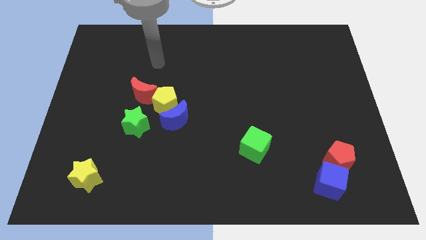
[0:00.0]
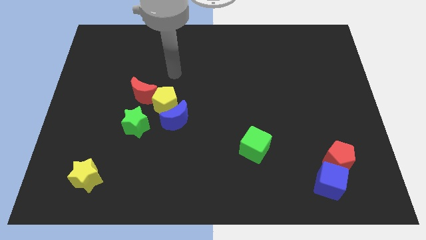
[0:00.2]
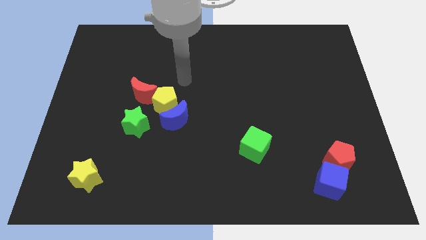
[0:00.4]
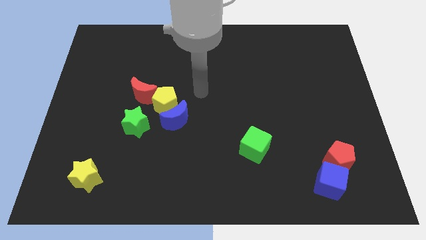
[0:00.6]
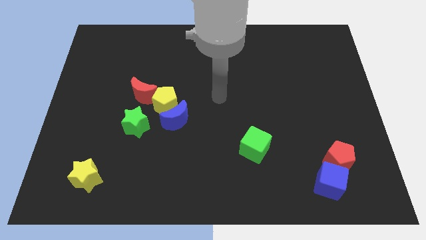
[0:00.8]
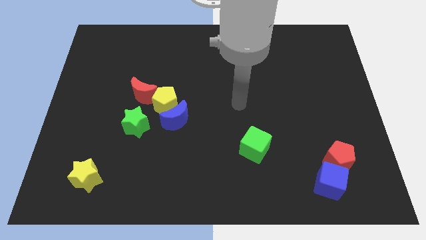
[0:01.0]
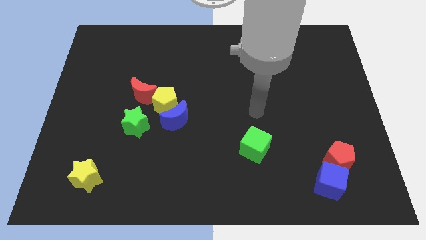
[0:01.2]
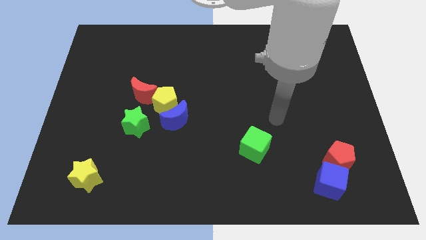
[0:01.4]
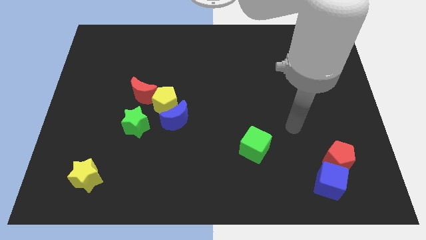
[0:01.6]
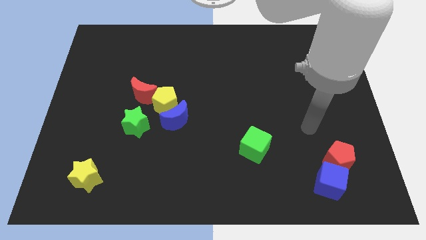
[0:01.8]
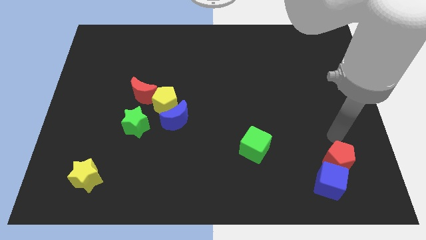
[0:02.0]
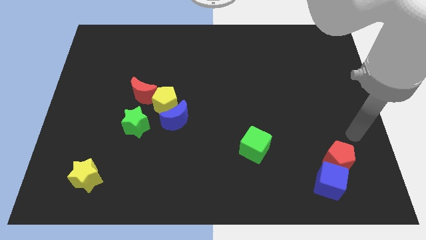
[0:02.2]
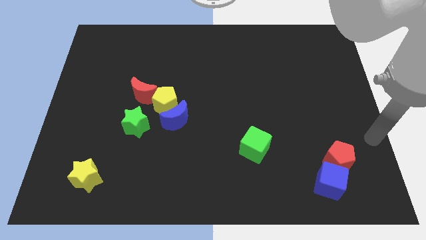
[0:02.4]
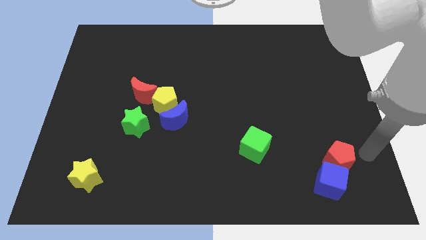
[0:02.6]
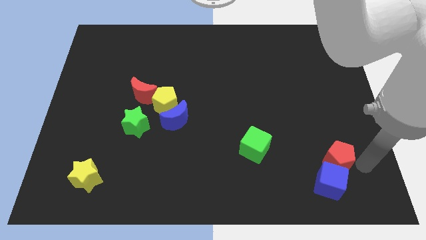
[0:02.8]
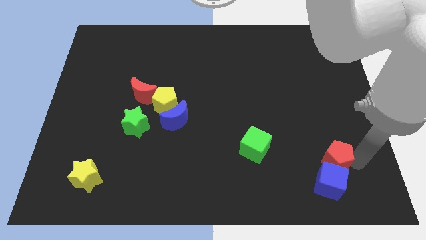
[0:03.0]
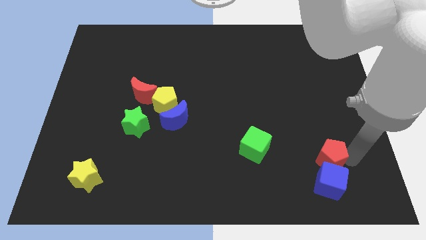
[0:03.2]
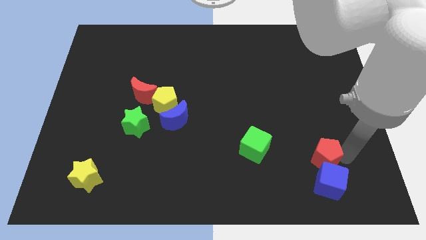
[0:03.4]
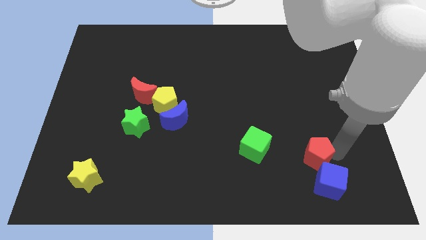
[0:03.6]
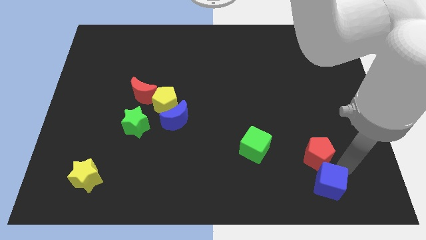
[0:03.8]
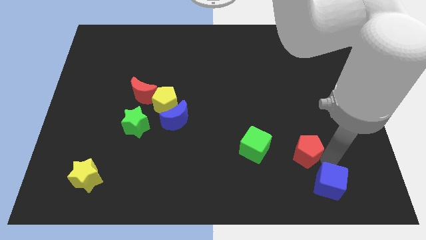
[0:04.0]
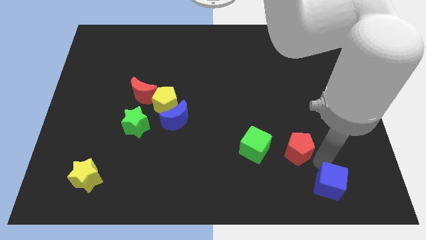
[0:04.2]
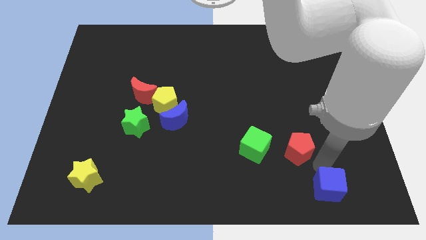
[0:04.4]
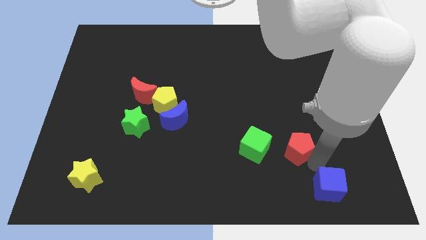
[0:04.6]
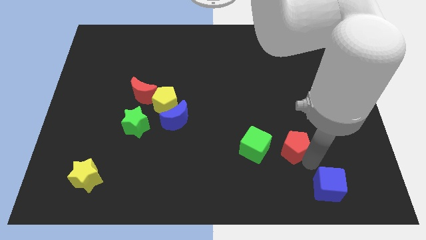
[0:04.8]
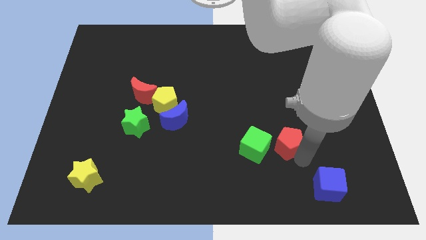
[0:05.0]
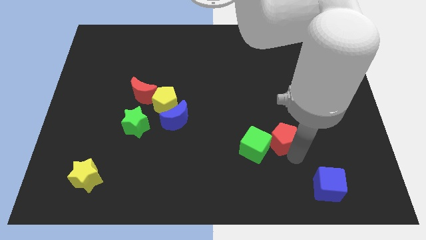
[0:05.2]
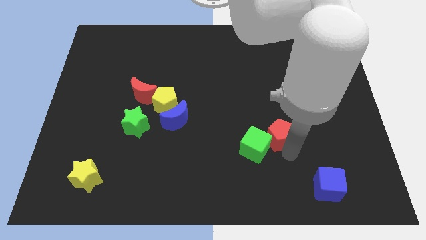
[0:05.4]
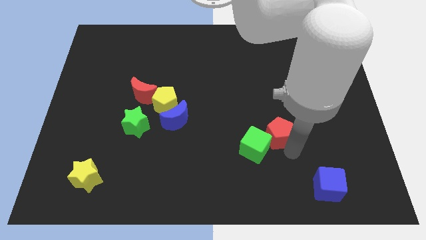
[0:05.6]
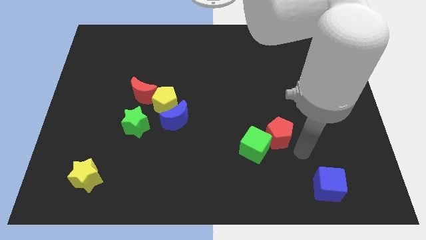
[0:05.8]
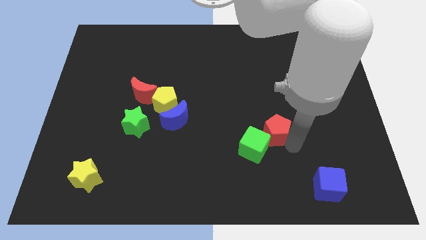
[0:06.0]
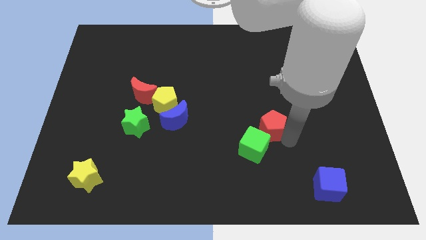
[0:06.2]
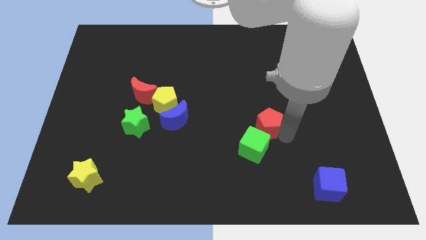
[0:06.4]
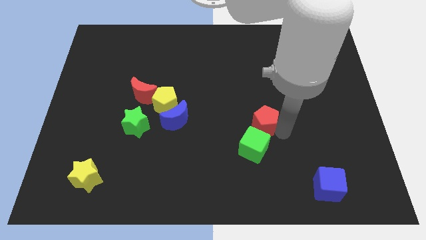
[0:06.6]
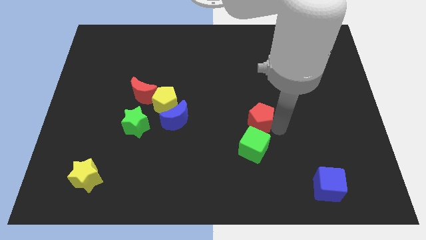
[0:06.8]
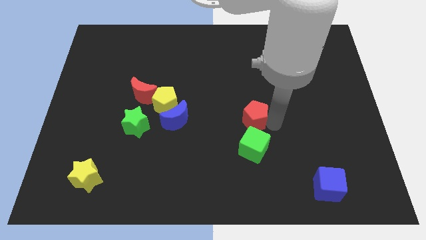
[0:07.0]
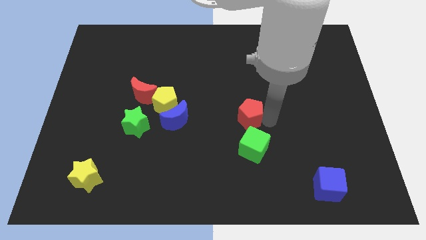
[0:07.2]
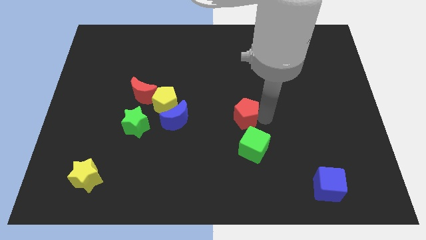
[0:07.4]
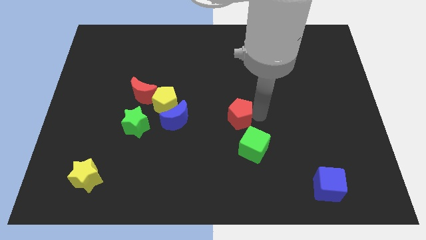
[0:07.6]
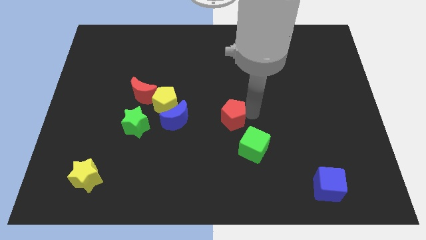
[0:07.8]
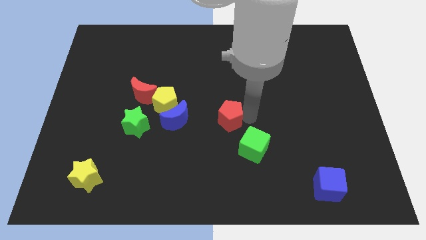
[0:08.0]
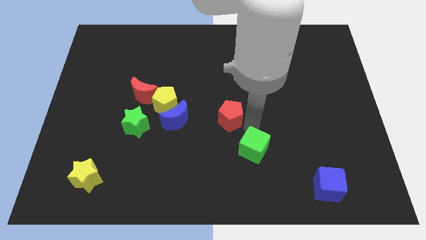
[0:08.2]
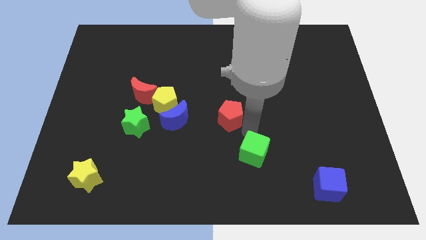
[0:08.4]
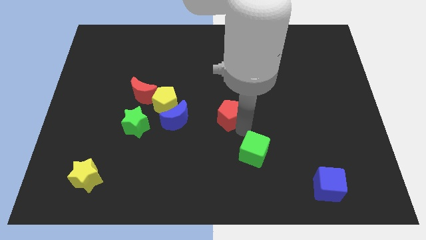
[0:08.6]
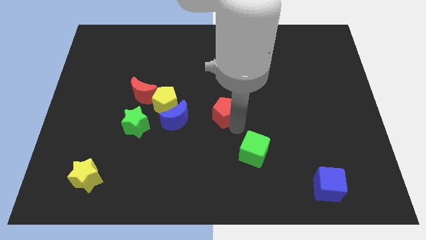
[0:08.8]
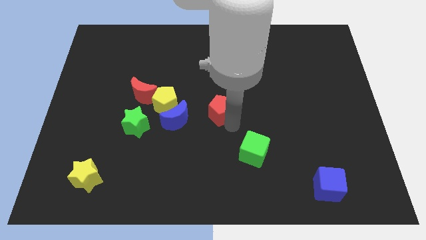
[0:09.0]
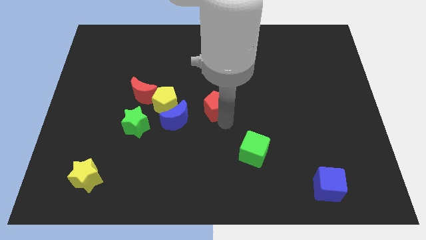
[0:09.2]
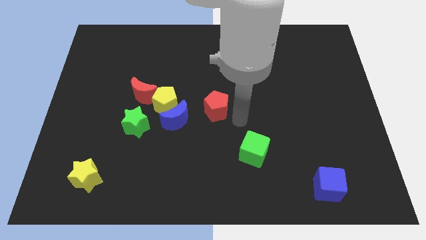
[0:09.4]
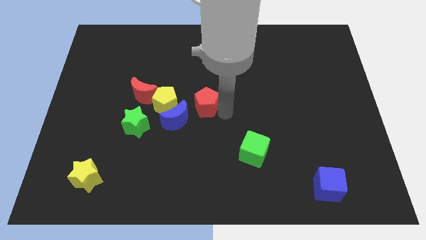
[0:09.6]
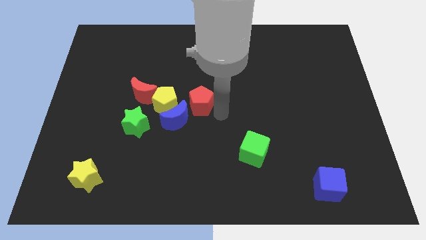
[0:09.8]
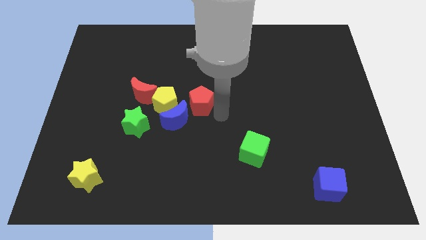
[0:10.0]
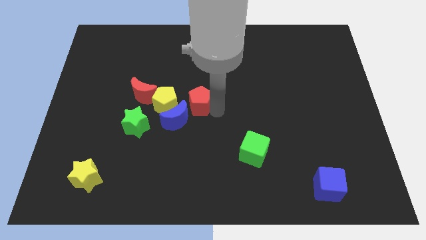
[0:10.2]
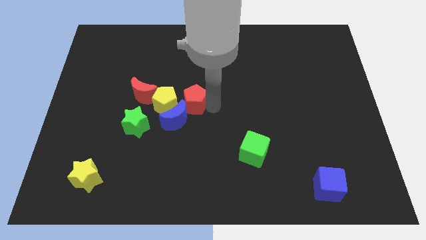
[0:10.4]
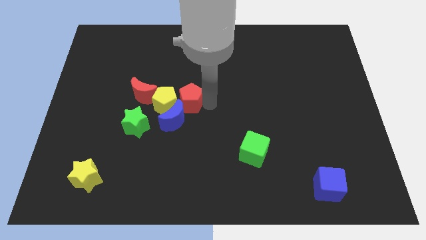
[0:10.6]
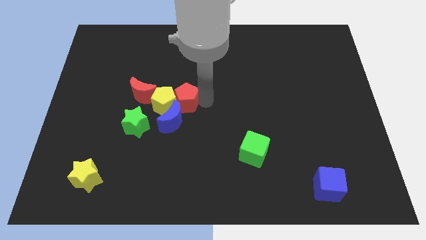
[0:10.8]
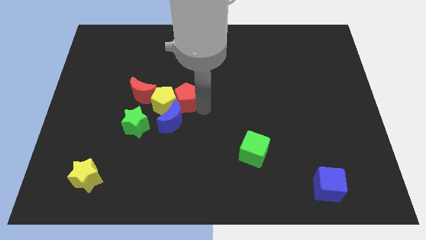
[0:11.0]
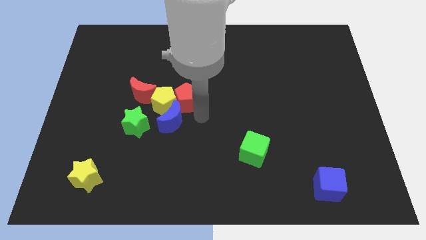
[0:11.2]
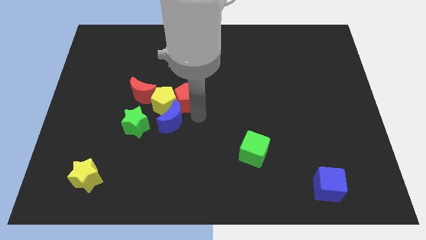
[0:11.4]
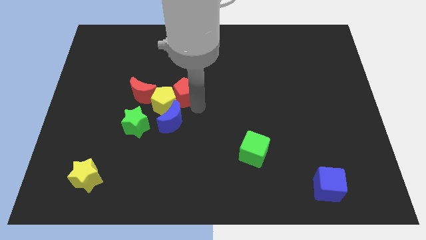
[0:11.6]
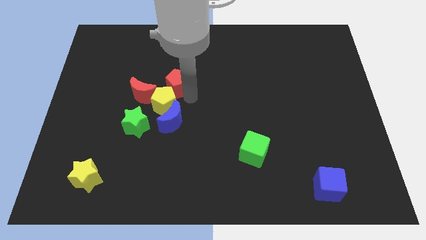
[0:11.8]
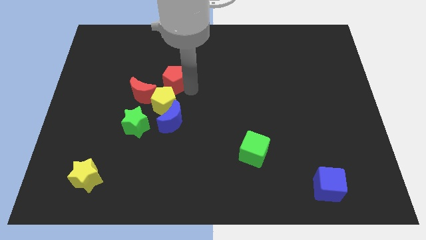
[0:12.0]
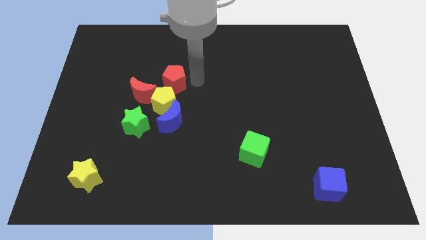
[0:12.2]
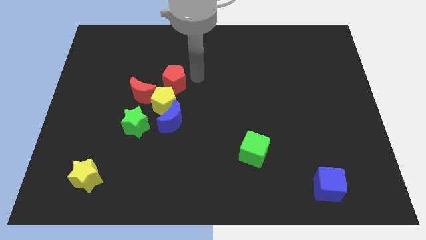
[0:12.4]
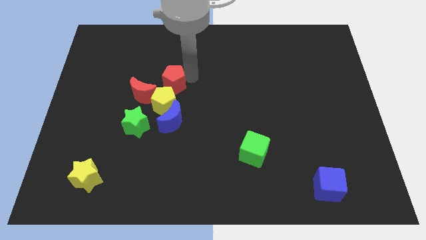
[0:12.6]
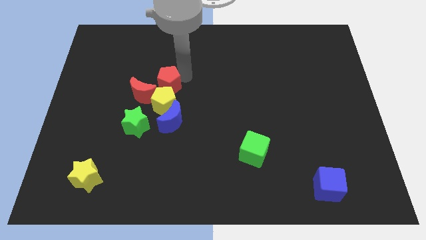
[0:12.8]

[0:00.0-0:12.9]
push the red pentagon diagonally up and to the left of the yellow pentagon
